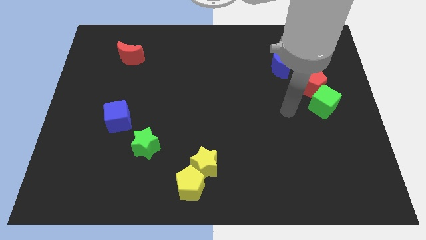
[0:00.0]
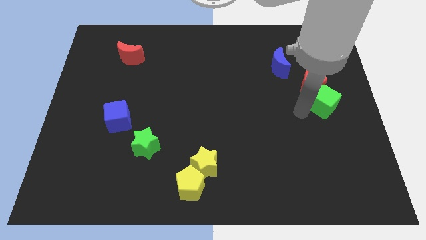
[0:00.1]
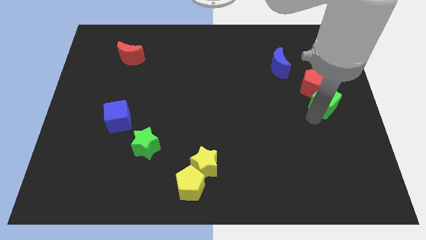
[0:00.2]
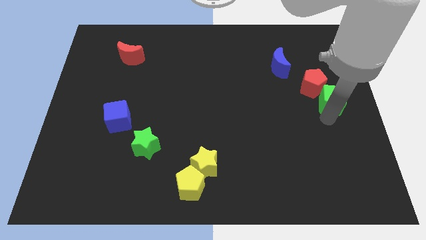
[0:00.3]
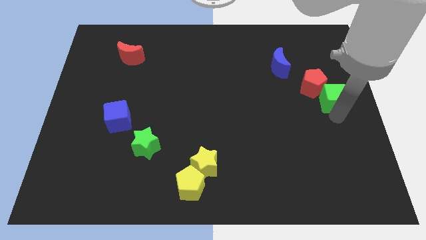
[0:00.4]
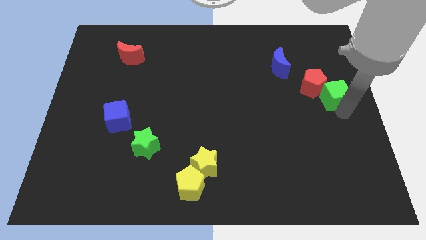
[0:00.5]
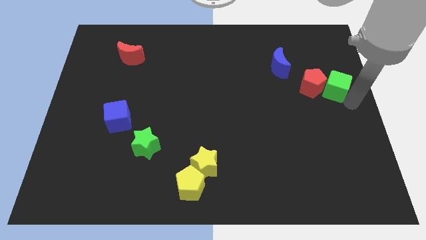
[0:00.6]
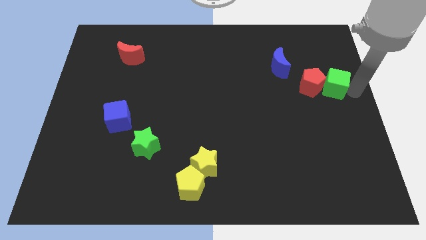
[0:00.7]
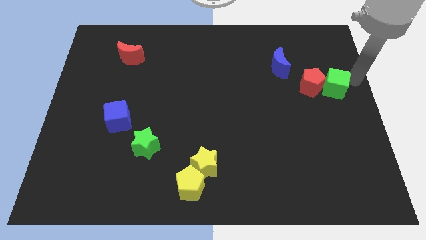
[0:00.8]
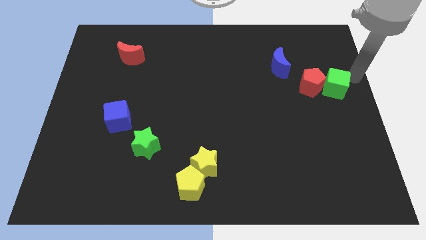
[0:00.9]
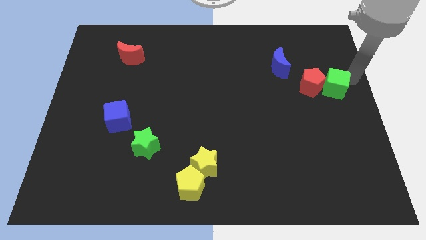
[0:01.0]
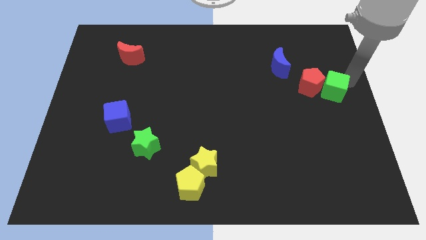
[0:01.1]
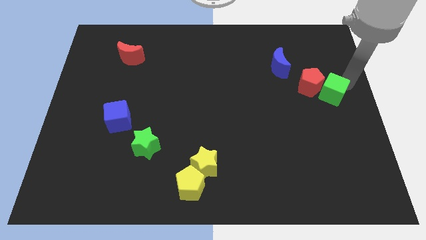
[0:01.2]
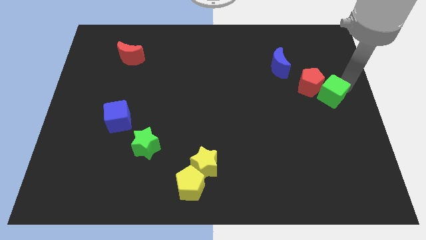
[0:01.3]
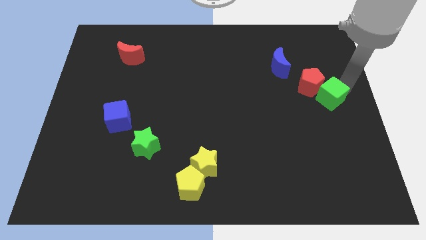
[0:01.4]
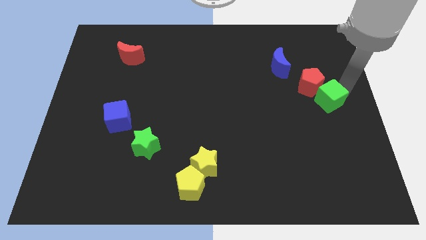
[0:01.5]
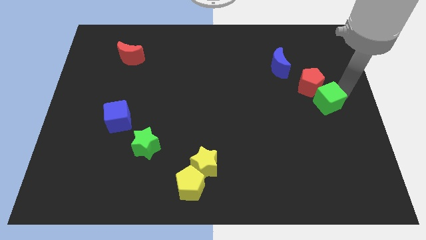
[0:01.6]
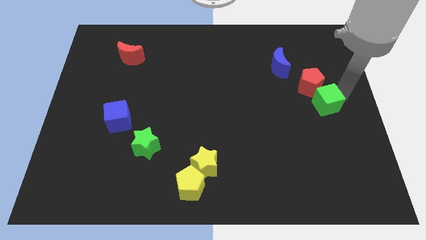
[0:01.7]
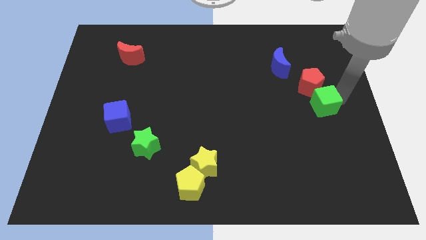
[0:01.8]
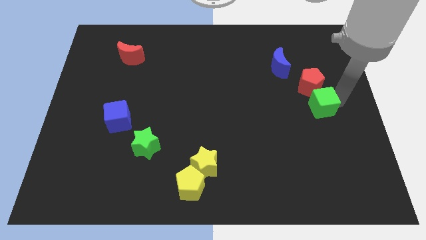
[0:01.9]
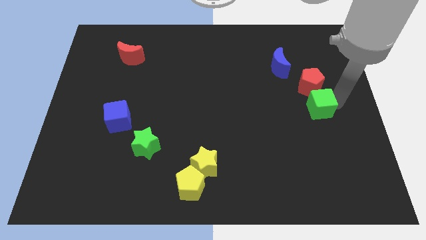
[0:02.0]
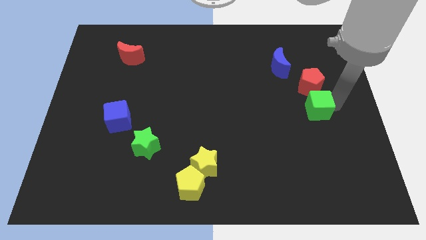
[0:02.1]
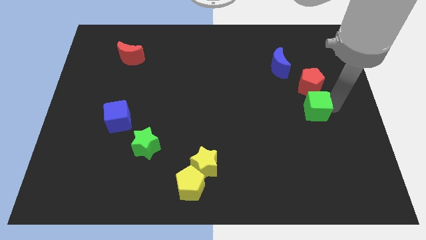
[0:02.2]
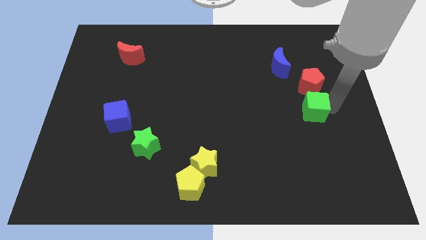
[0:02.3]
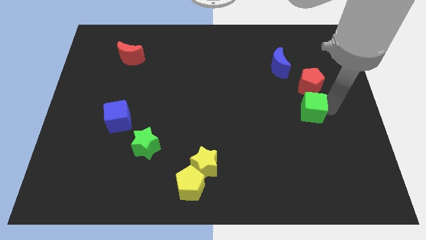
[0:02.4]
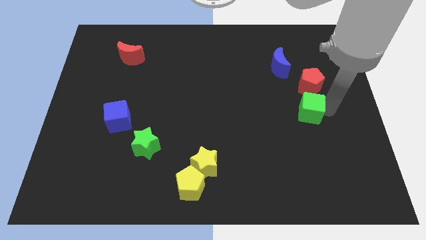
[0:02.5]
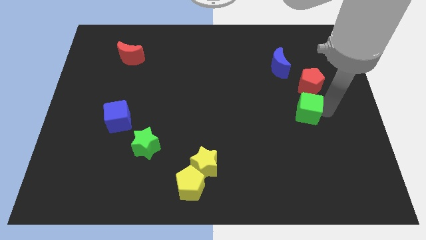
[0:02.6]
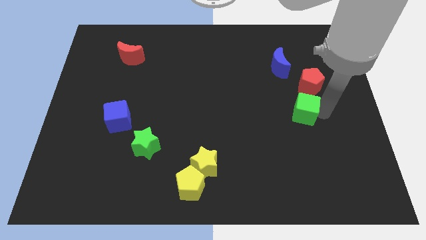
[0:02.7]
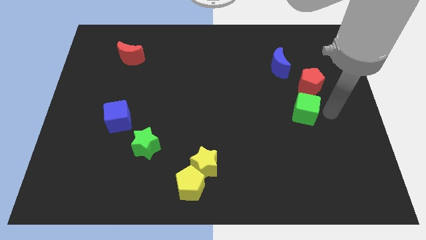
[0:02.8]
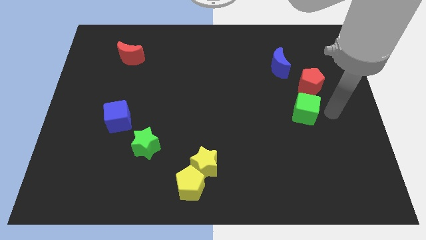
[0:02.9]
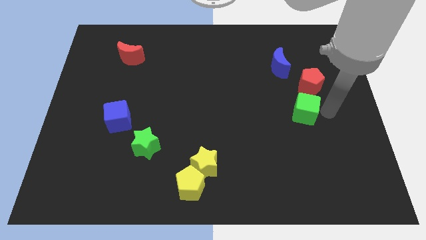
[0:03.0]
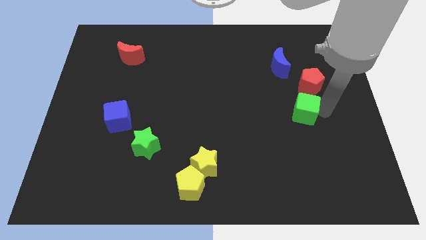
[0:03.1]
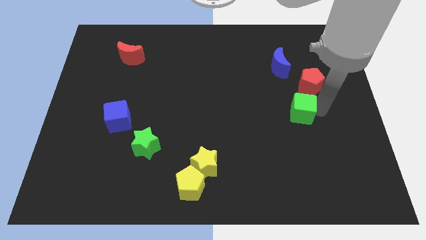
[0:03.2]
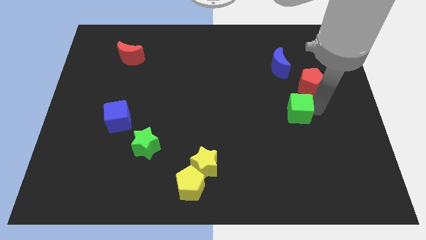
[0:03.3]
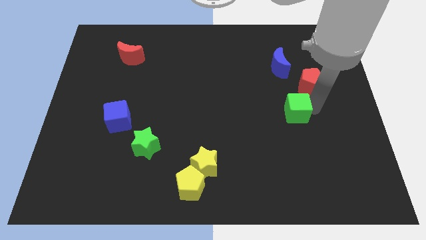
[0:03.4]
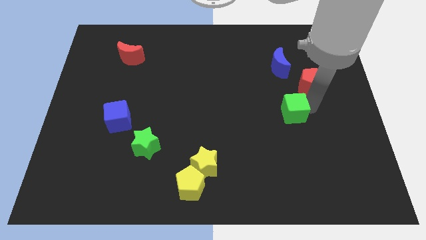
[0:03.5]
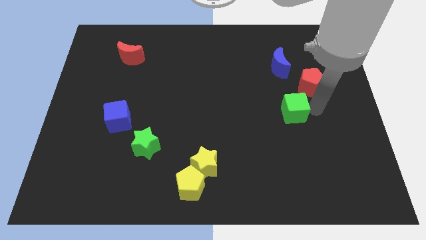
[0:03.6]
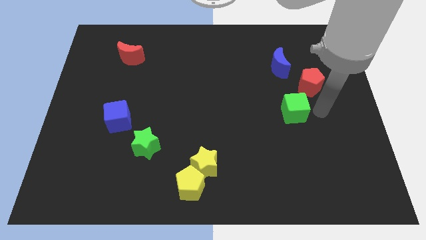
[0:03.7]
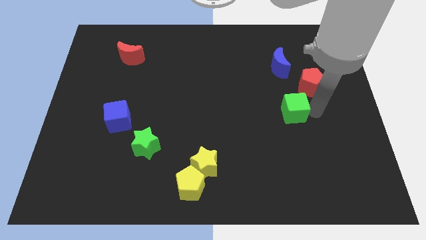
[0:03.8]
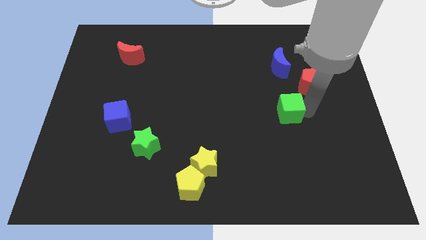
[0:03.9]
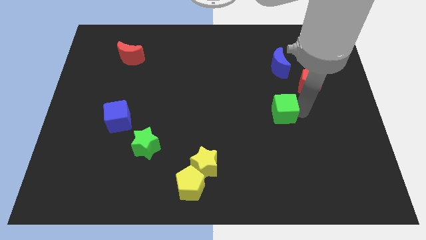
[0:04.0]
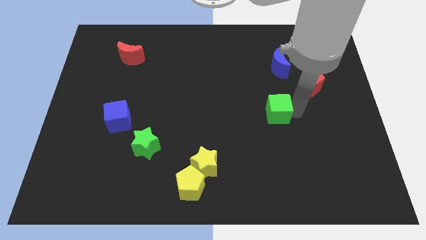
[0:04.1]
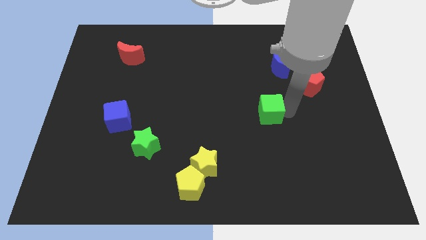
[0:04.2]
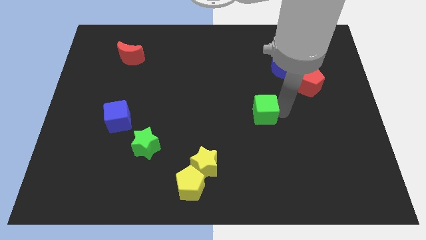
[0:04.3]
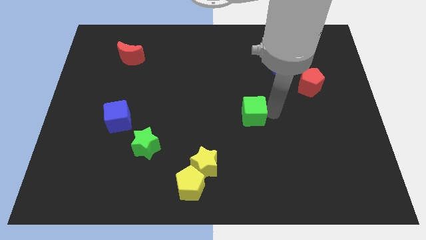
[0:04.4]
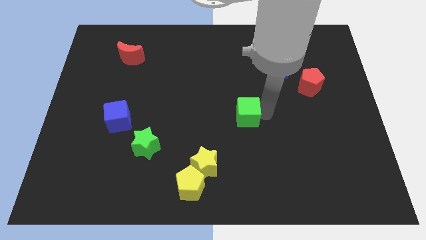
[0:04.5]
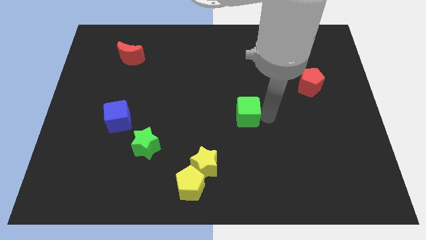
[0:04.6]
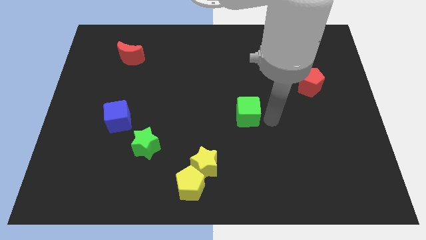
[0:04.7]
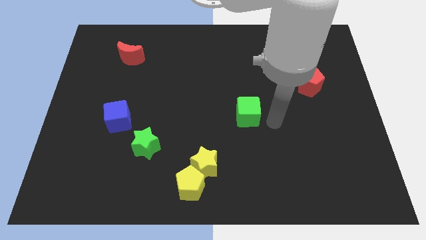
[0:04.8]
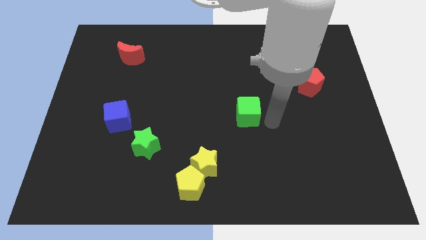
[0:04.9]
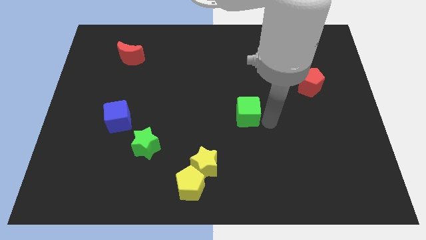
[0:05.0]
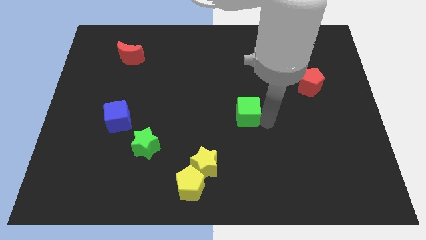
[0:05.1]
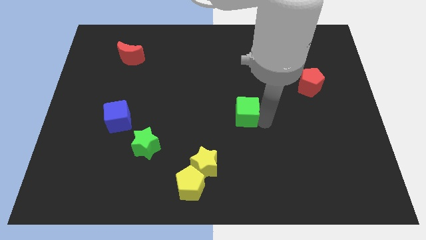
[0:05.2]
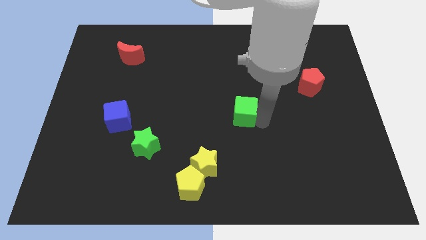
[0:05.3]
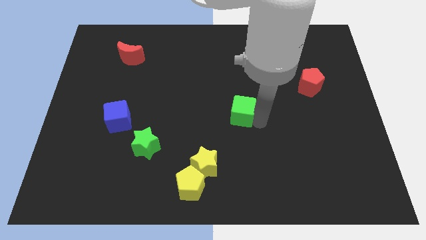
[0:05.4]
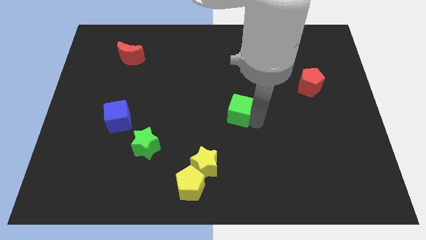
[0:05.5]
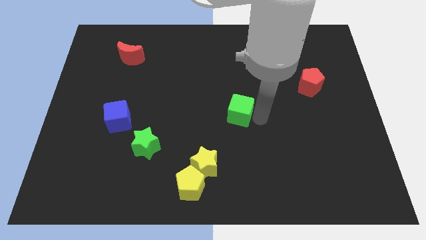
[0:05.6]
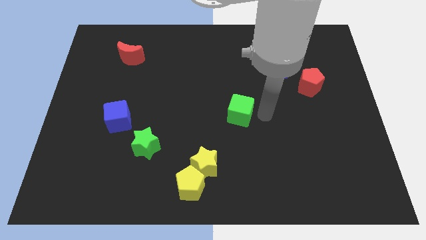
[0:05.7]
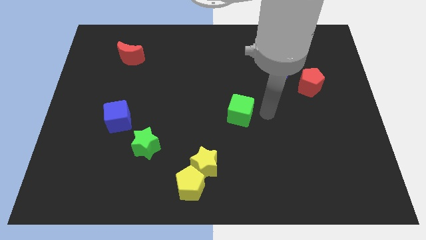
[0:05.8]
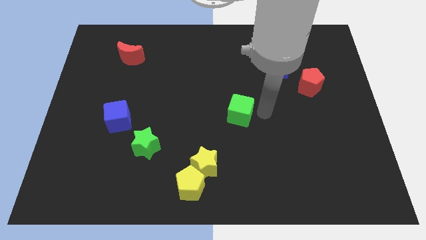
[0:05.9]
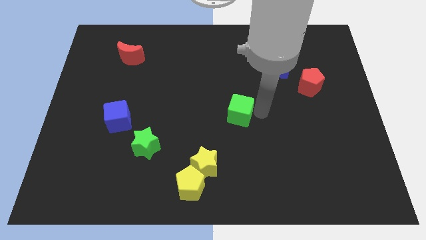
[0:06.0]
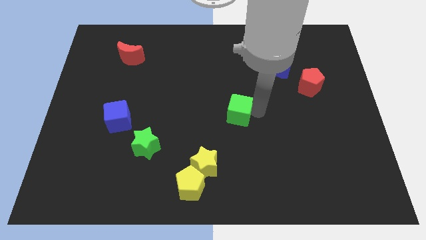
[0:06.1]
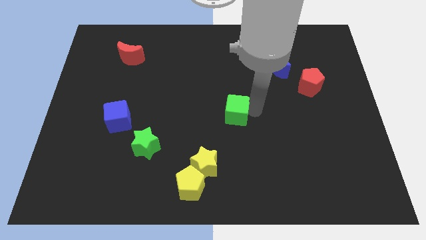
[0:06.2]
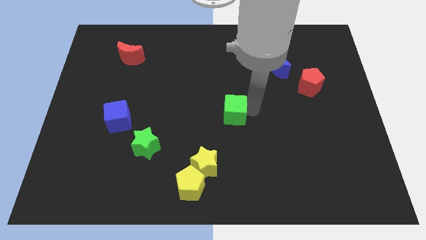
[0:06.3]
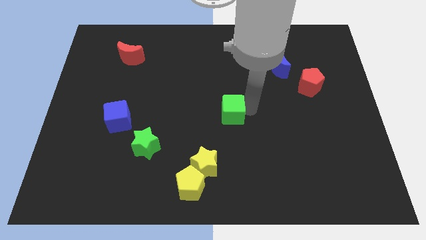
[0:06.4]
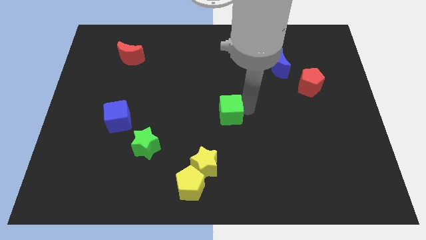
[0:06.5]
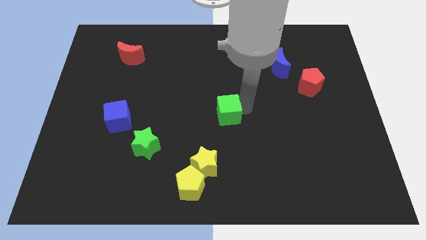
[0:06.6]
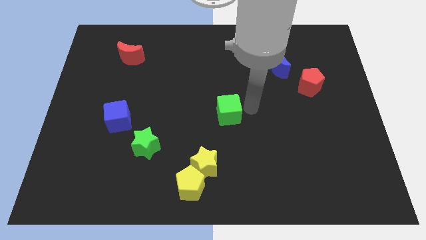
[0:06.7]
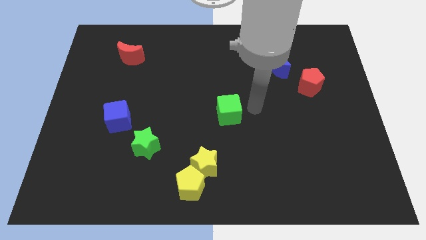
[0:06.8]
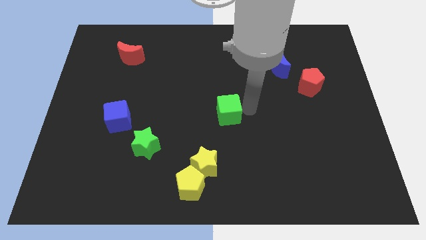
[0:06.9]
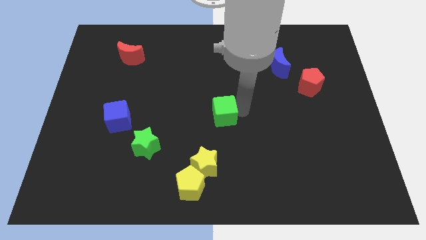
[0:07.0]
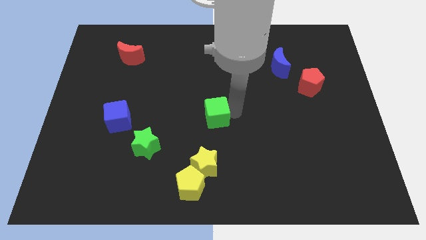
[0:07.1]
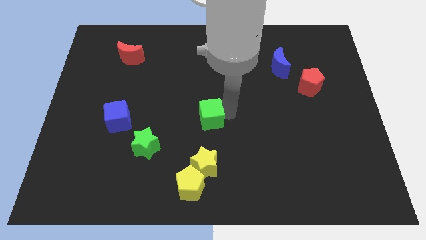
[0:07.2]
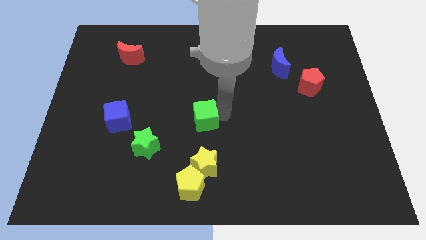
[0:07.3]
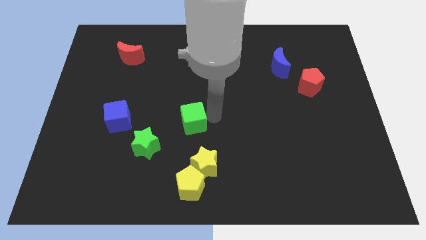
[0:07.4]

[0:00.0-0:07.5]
move the green cube to the top right side of the green star
